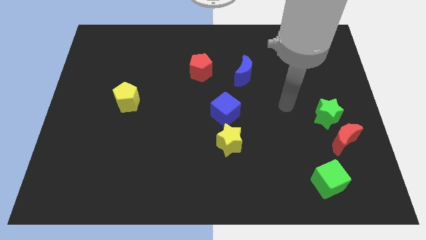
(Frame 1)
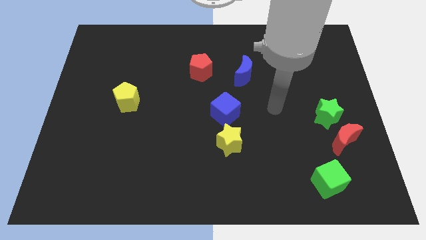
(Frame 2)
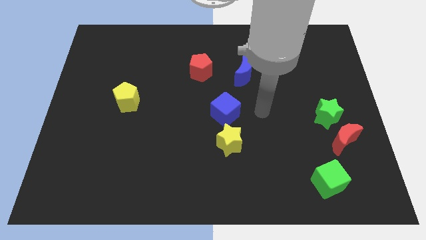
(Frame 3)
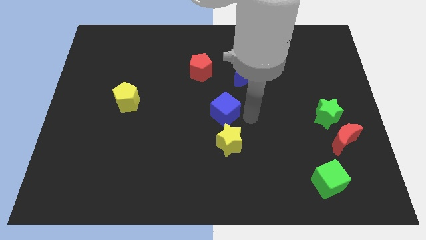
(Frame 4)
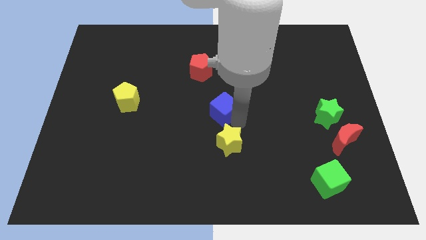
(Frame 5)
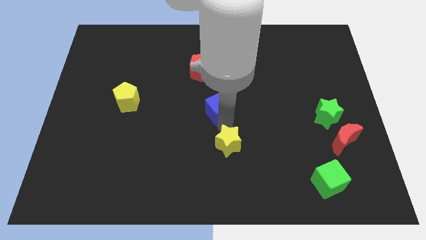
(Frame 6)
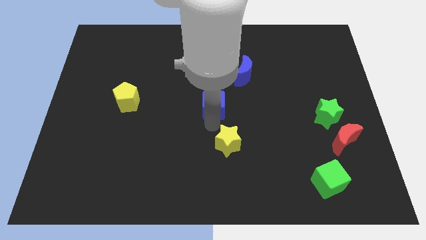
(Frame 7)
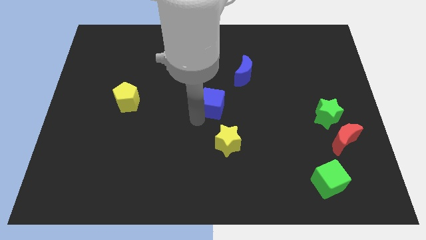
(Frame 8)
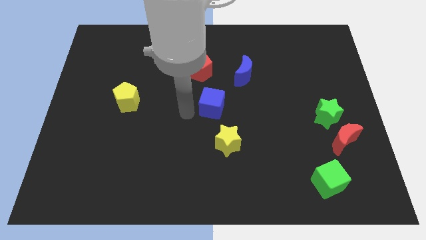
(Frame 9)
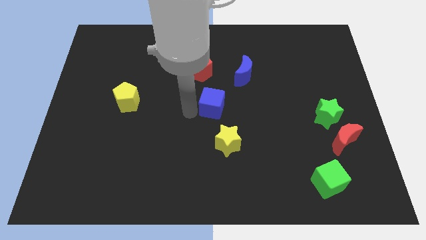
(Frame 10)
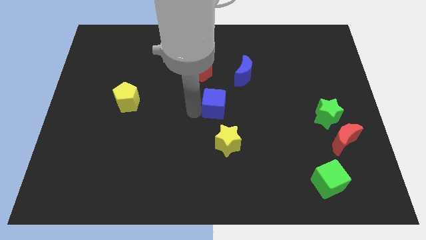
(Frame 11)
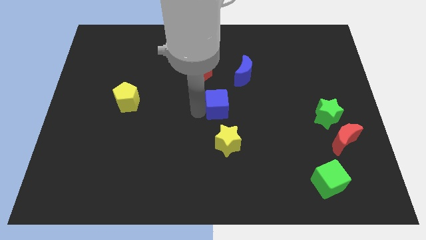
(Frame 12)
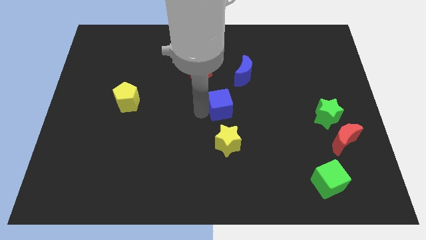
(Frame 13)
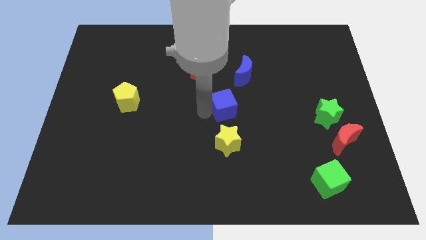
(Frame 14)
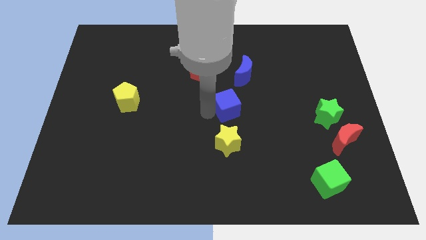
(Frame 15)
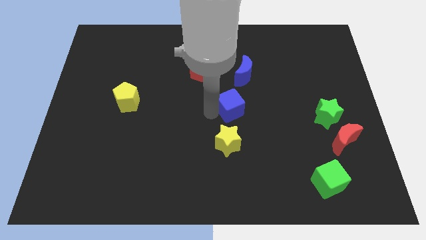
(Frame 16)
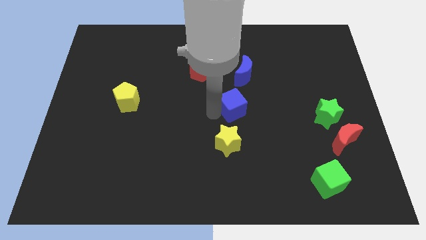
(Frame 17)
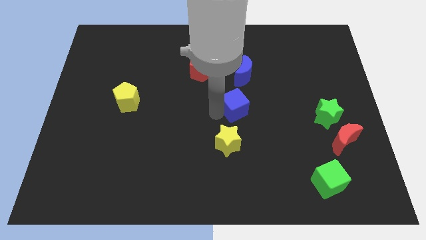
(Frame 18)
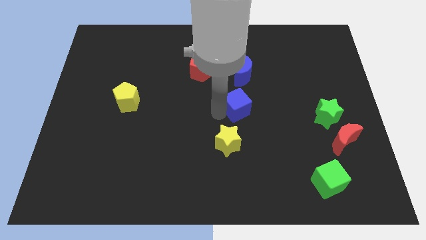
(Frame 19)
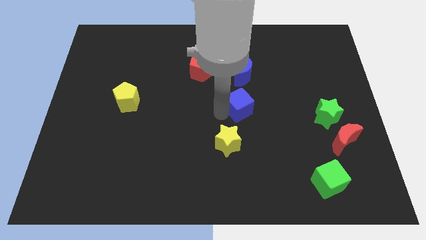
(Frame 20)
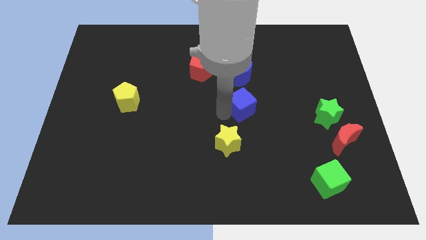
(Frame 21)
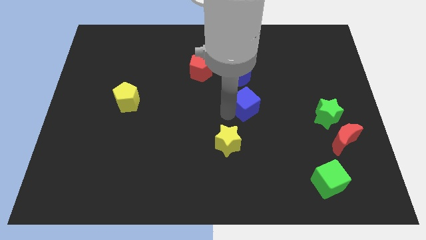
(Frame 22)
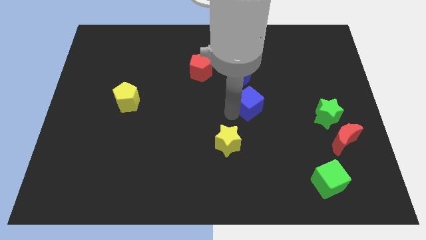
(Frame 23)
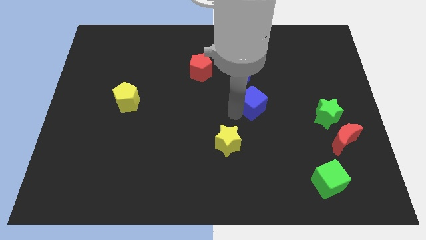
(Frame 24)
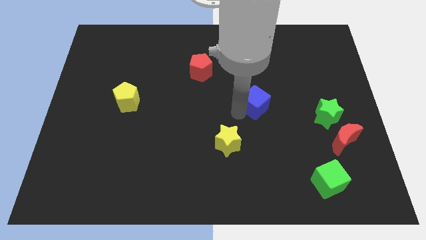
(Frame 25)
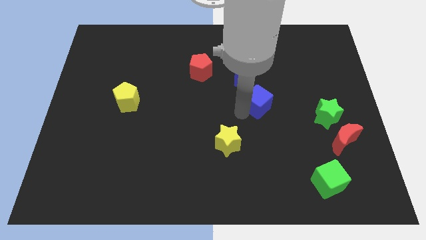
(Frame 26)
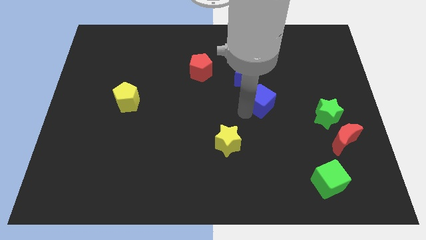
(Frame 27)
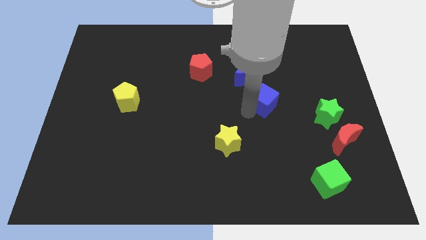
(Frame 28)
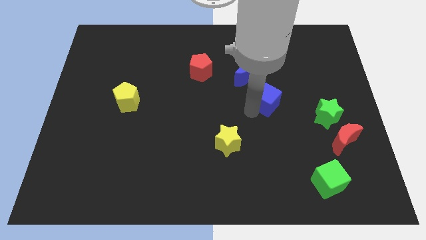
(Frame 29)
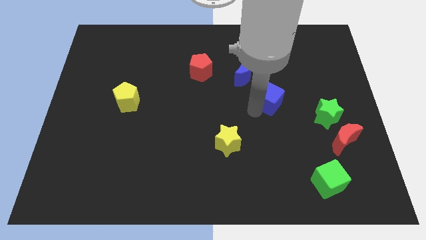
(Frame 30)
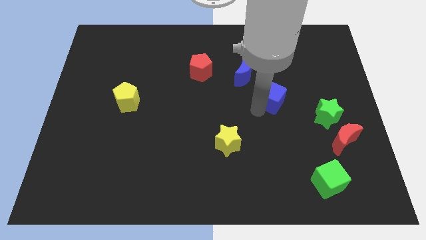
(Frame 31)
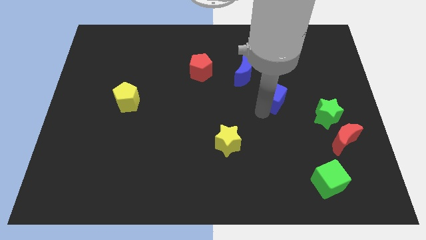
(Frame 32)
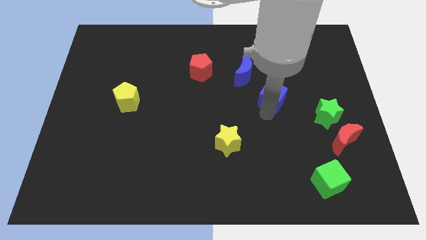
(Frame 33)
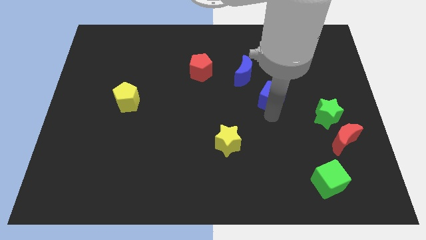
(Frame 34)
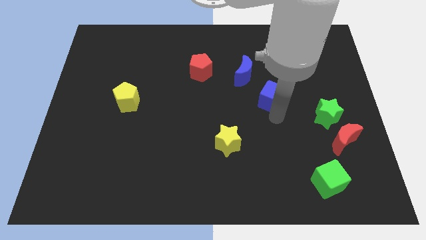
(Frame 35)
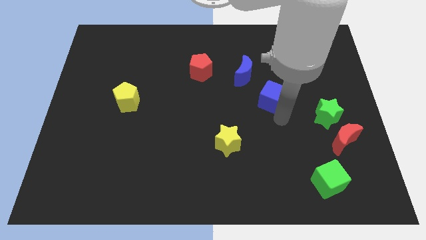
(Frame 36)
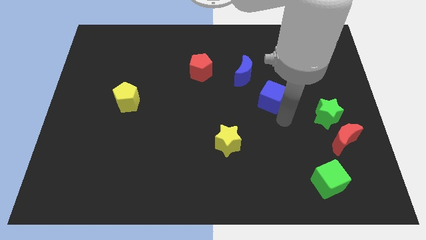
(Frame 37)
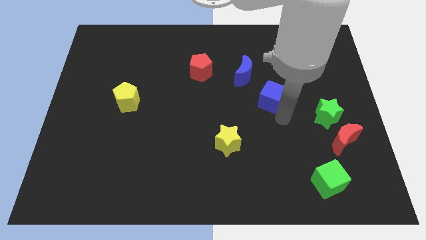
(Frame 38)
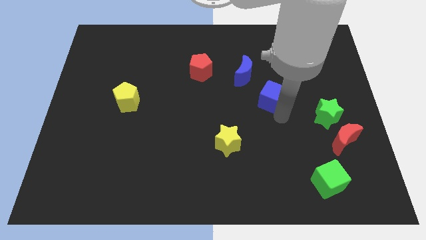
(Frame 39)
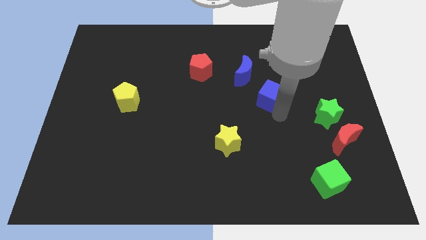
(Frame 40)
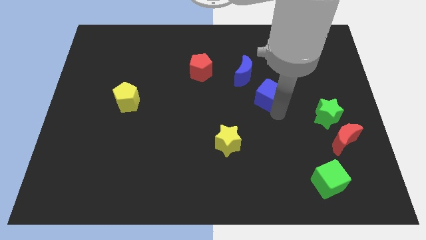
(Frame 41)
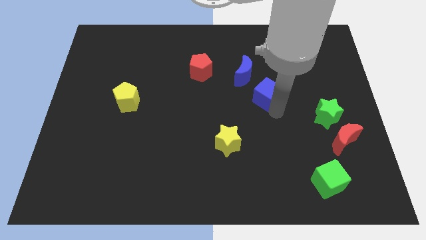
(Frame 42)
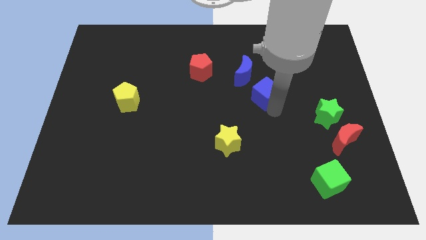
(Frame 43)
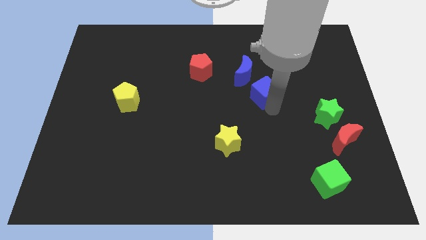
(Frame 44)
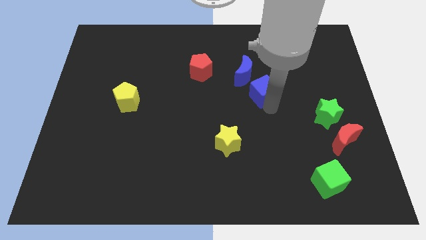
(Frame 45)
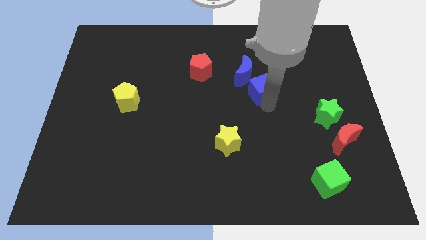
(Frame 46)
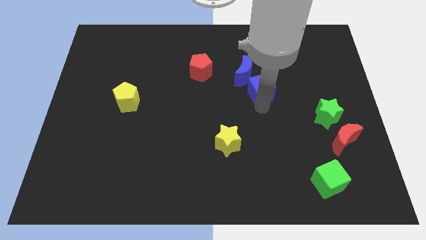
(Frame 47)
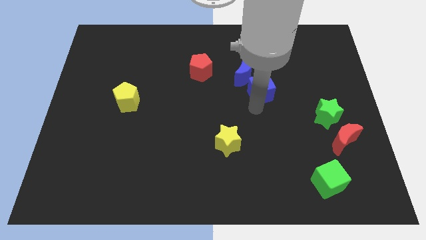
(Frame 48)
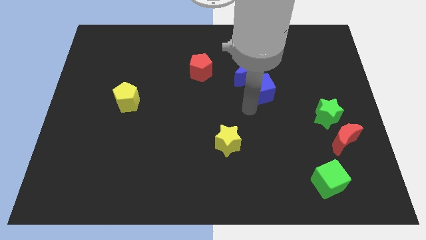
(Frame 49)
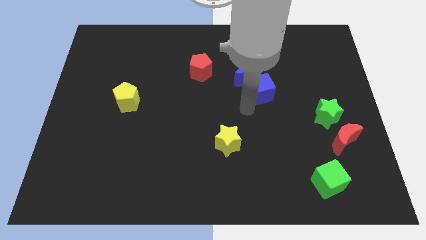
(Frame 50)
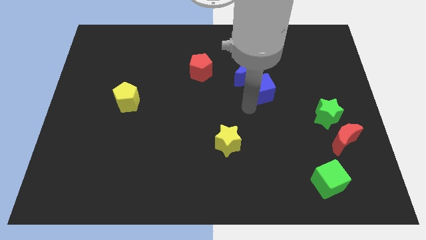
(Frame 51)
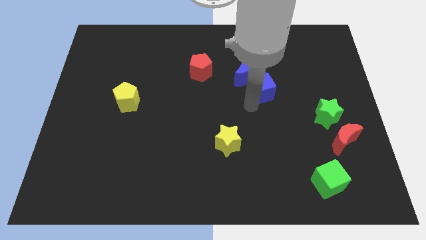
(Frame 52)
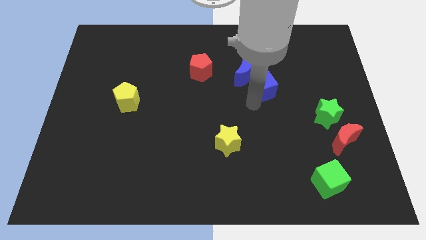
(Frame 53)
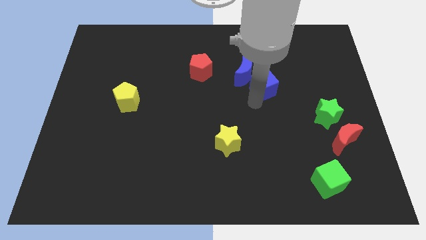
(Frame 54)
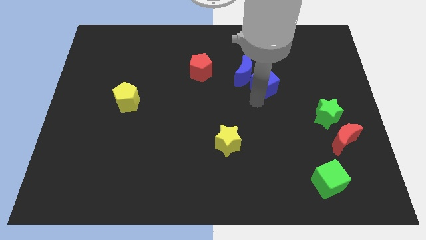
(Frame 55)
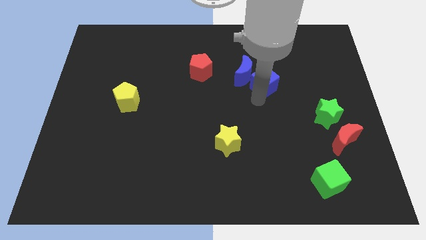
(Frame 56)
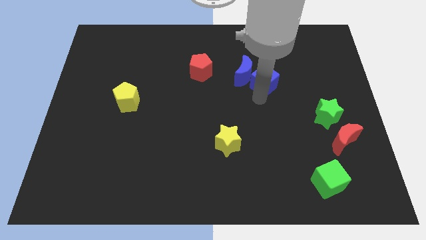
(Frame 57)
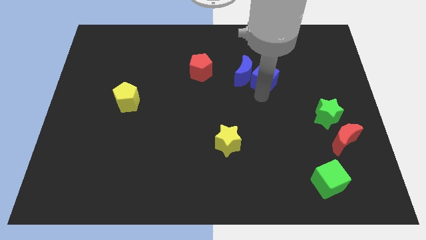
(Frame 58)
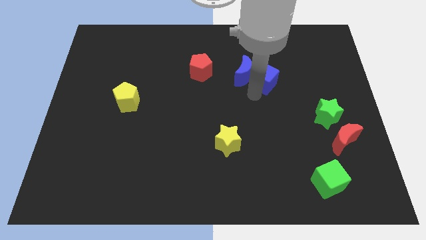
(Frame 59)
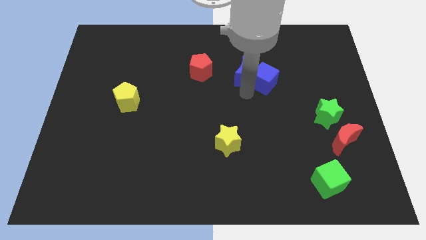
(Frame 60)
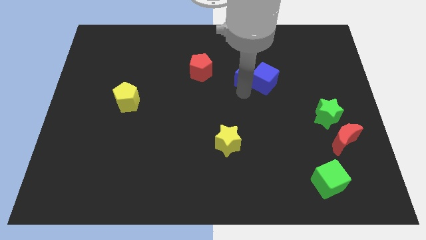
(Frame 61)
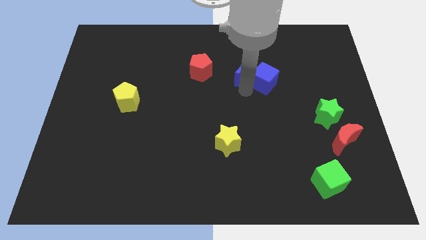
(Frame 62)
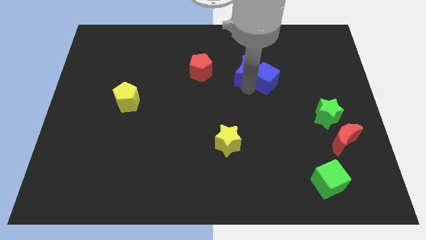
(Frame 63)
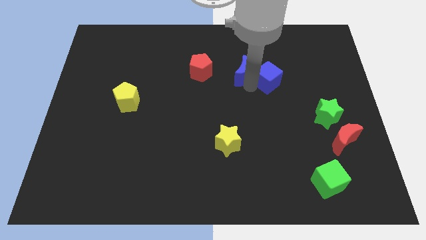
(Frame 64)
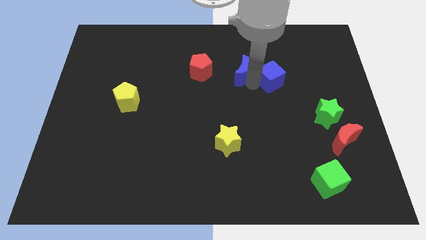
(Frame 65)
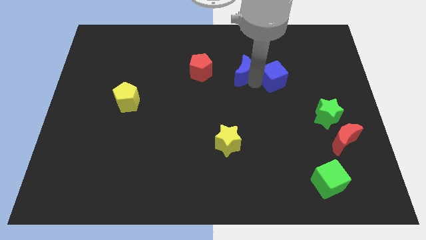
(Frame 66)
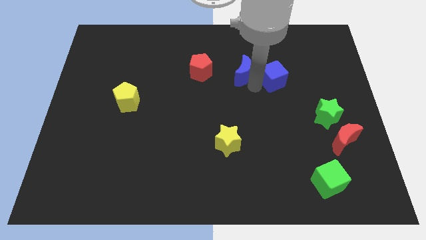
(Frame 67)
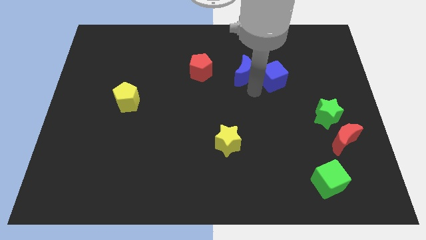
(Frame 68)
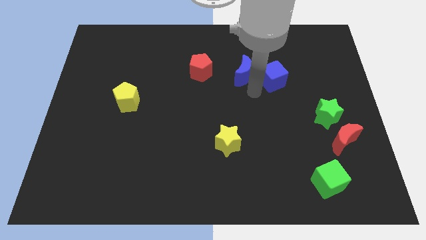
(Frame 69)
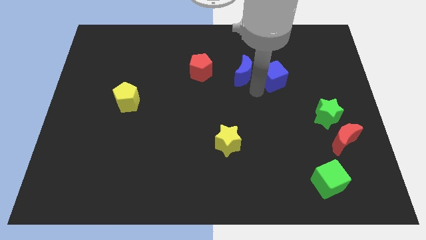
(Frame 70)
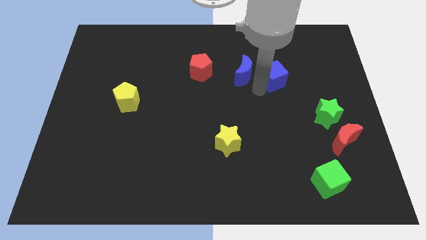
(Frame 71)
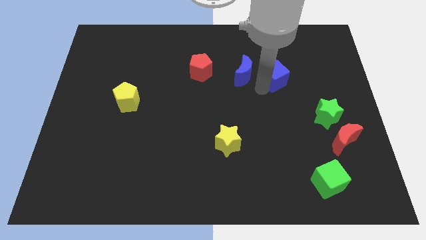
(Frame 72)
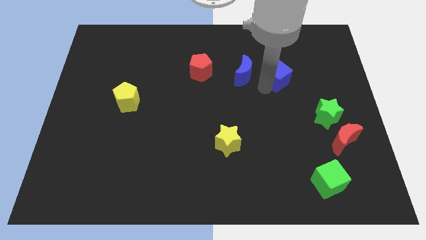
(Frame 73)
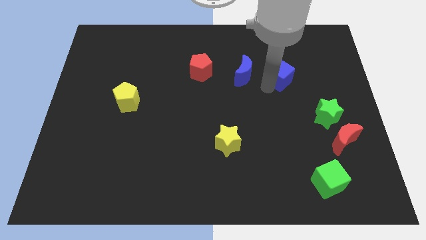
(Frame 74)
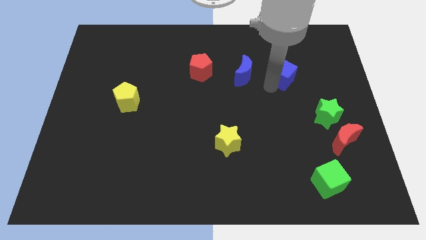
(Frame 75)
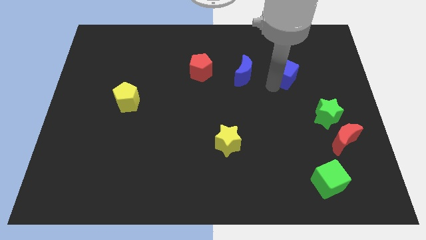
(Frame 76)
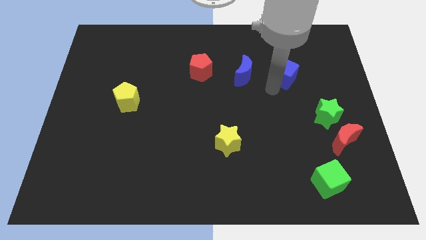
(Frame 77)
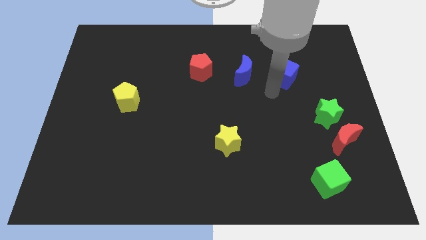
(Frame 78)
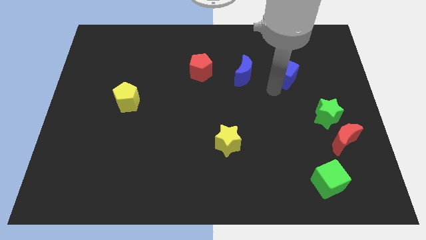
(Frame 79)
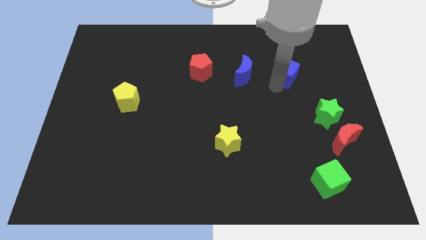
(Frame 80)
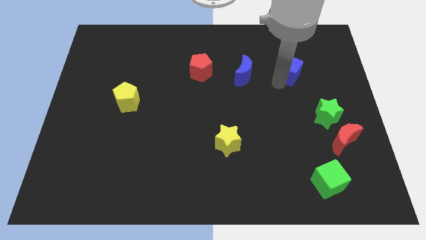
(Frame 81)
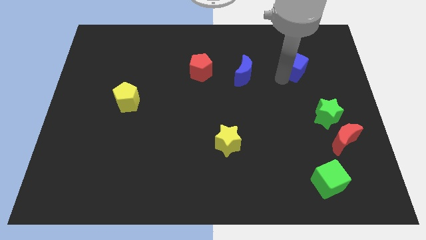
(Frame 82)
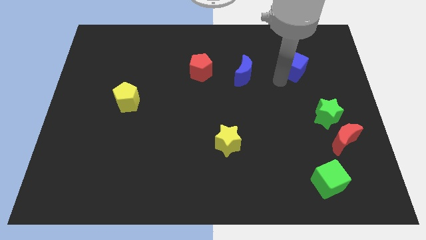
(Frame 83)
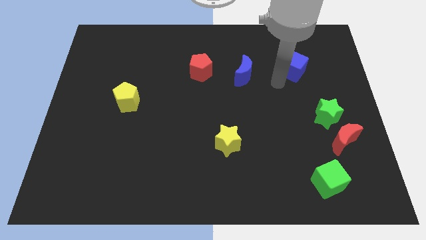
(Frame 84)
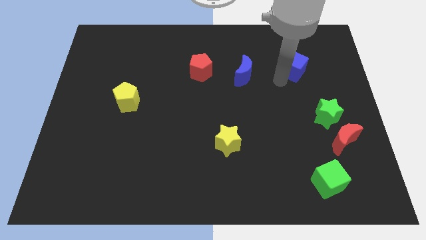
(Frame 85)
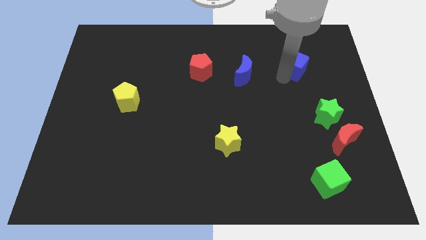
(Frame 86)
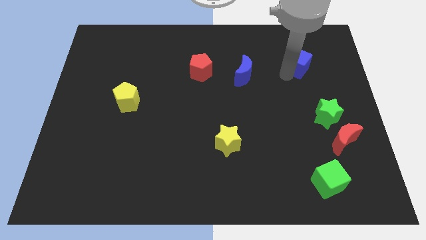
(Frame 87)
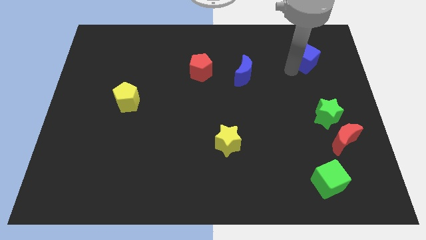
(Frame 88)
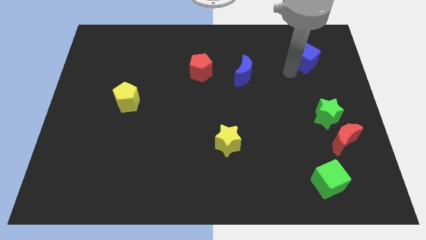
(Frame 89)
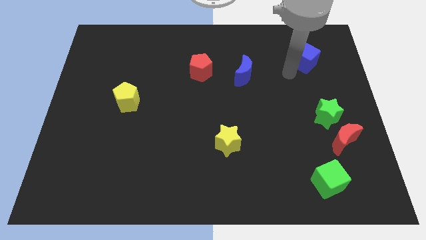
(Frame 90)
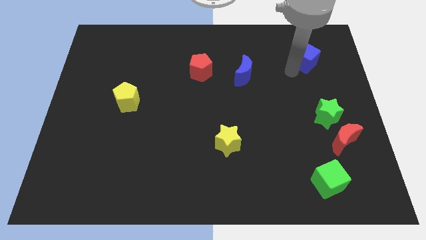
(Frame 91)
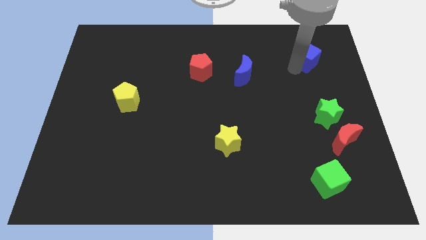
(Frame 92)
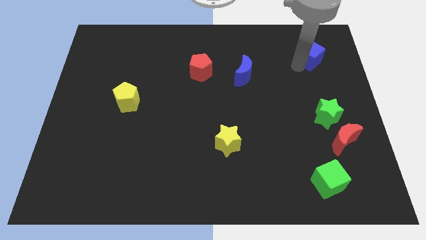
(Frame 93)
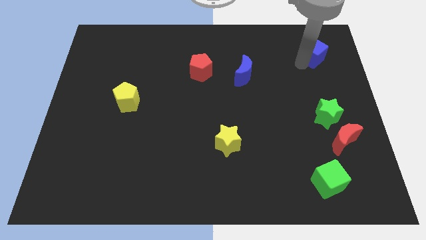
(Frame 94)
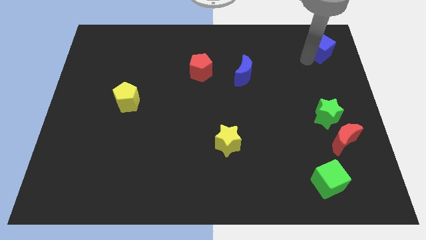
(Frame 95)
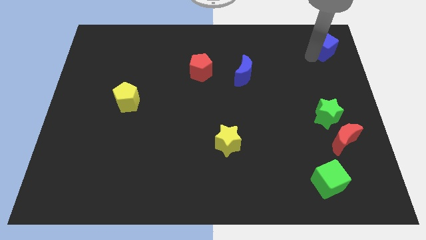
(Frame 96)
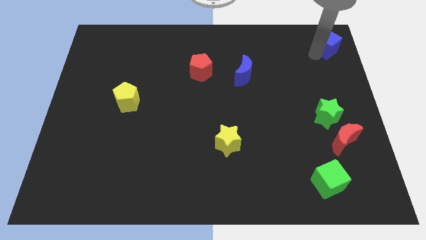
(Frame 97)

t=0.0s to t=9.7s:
slide the blue cube to the top right
